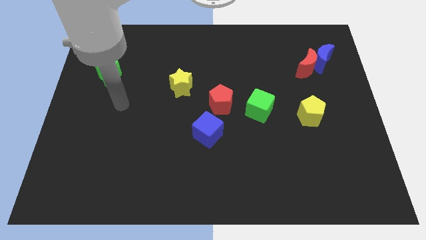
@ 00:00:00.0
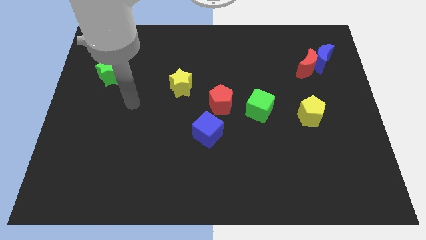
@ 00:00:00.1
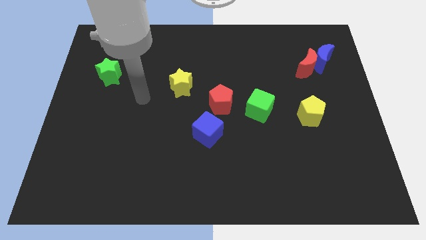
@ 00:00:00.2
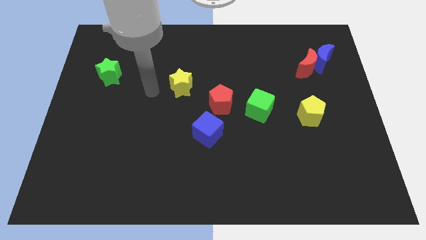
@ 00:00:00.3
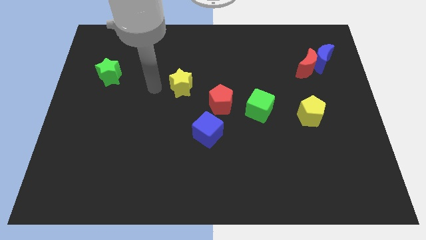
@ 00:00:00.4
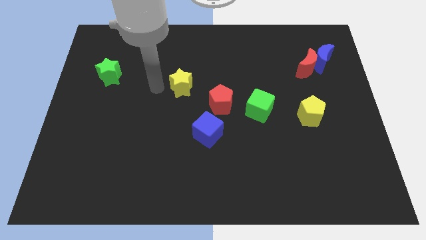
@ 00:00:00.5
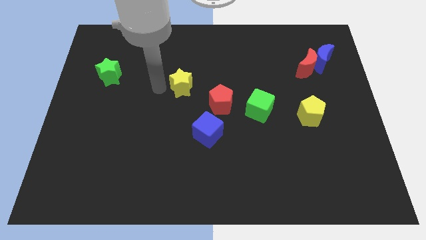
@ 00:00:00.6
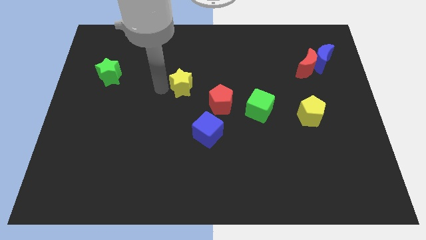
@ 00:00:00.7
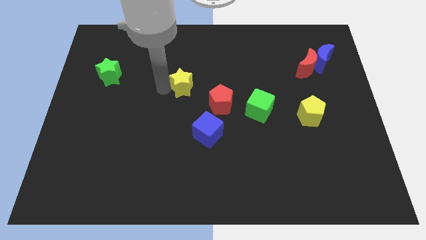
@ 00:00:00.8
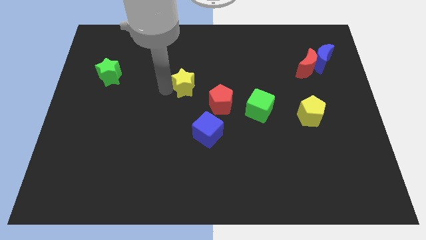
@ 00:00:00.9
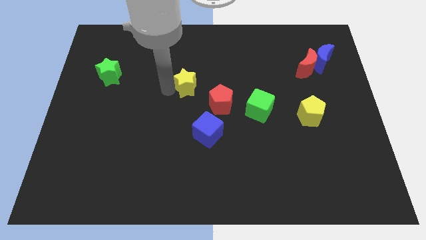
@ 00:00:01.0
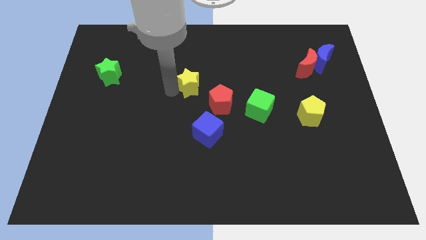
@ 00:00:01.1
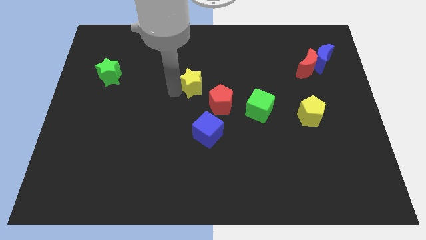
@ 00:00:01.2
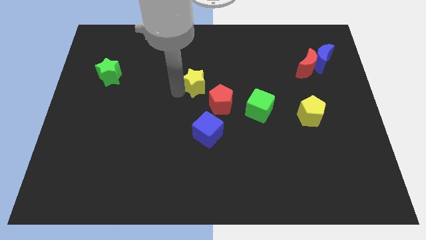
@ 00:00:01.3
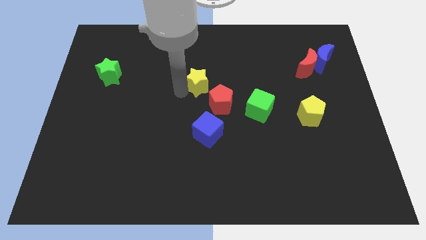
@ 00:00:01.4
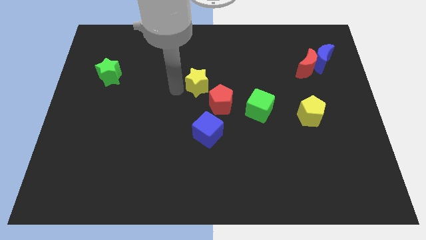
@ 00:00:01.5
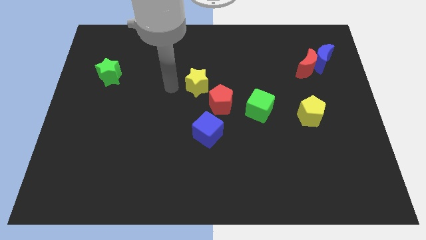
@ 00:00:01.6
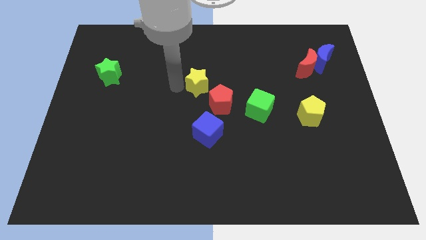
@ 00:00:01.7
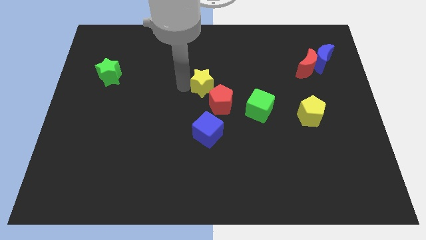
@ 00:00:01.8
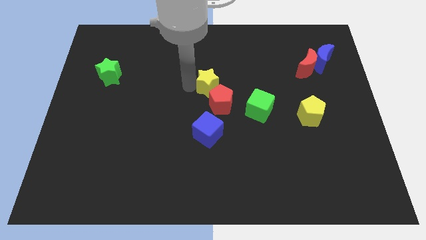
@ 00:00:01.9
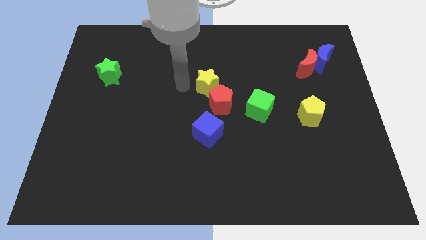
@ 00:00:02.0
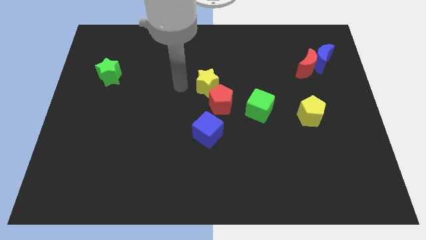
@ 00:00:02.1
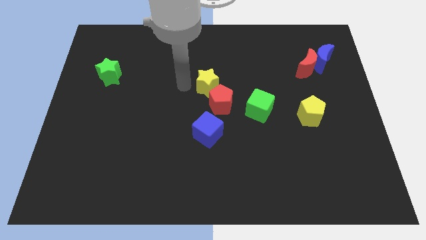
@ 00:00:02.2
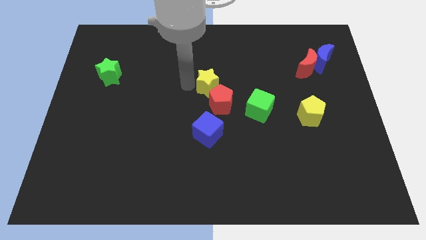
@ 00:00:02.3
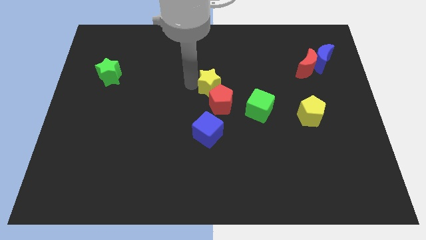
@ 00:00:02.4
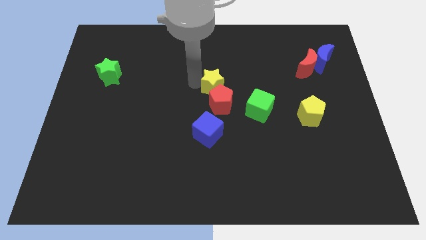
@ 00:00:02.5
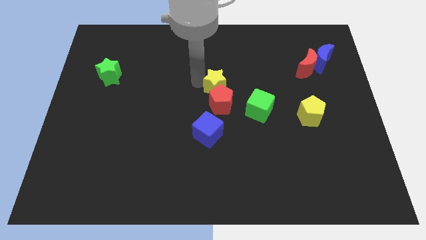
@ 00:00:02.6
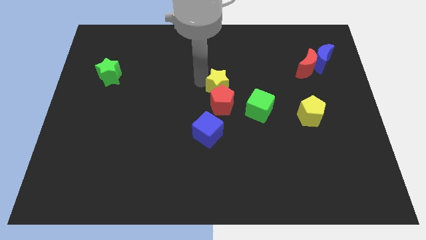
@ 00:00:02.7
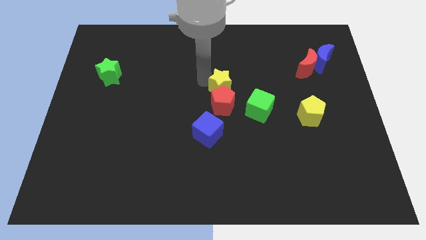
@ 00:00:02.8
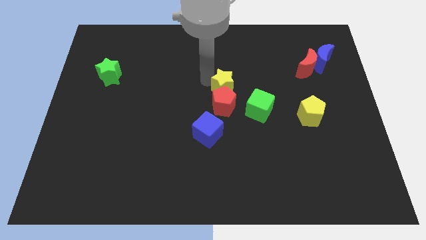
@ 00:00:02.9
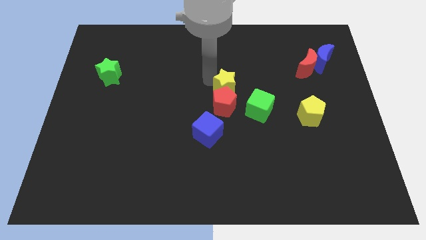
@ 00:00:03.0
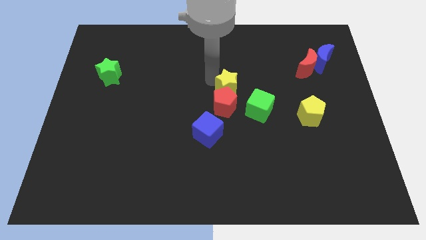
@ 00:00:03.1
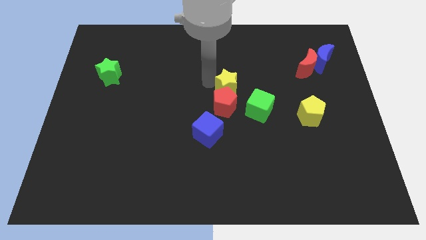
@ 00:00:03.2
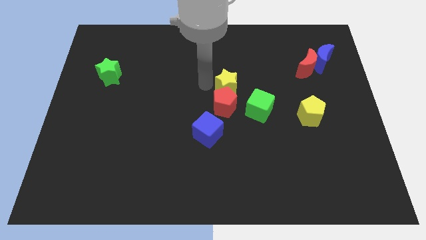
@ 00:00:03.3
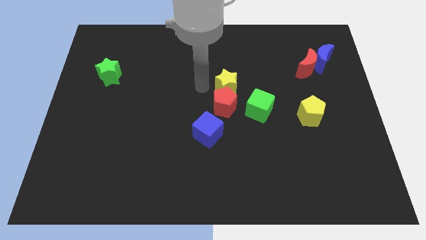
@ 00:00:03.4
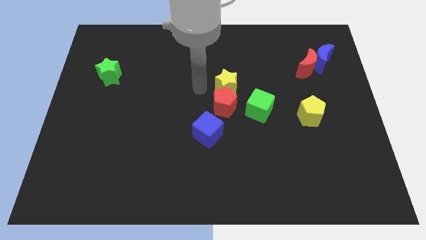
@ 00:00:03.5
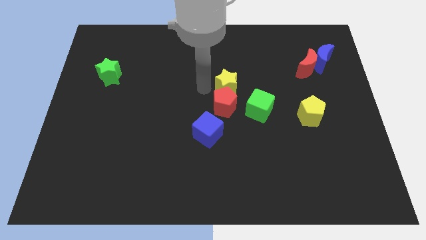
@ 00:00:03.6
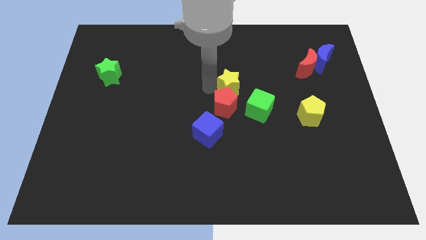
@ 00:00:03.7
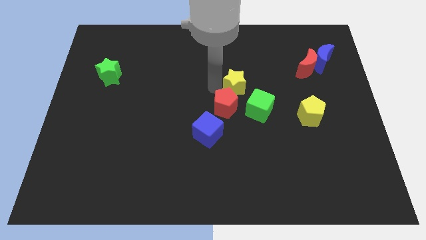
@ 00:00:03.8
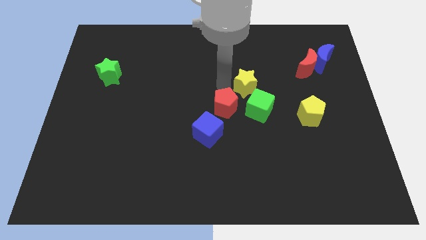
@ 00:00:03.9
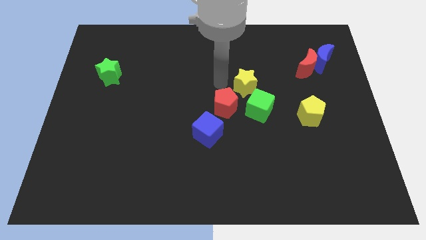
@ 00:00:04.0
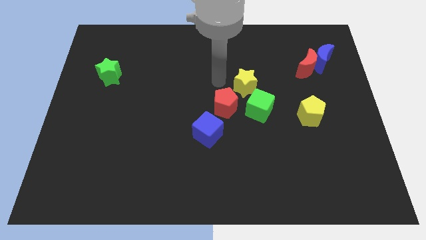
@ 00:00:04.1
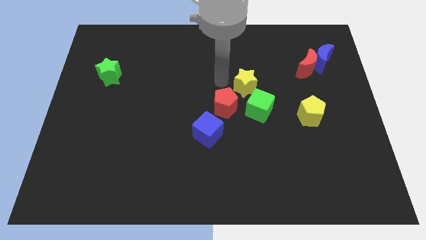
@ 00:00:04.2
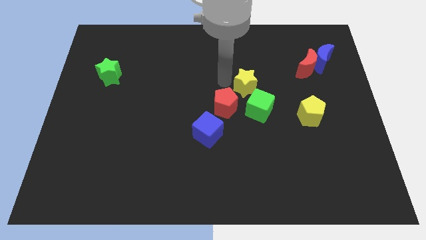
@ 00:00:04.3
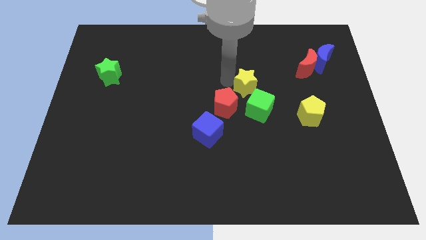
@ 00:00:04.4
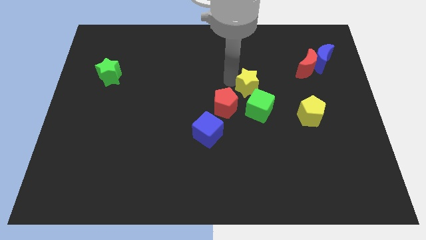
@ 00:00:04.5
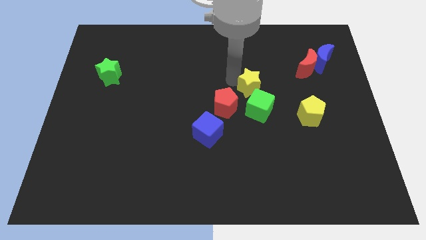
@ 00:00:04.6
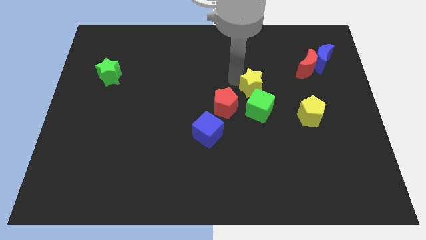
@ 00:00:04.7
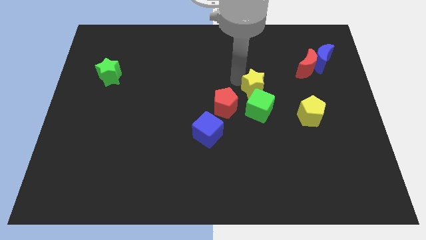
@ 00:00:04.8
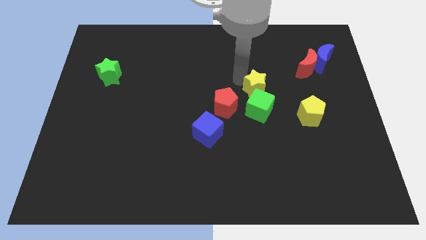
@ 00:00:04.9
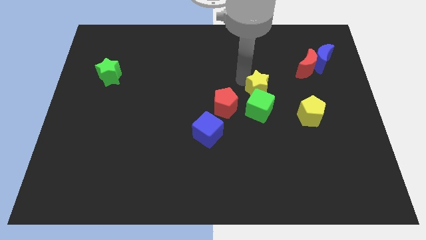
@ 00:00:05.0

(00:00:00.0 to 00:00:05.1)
move the yellow star diagonally up and to the right of the green cube

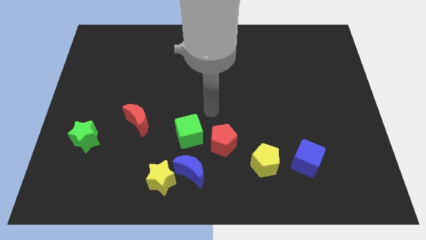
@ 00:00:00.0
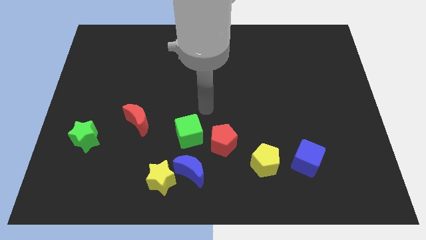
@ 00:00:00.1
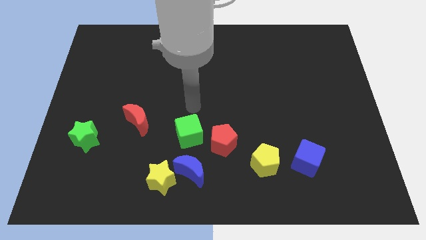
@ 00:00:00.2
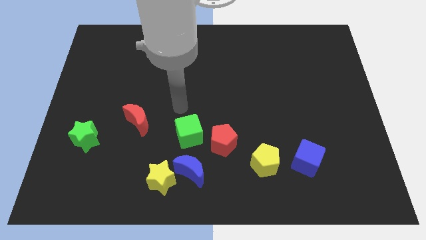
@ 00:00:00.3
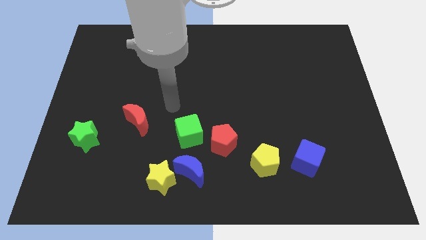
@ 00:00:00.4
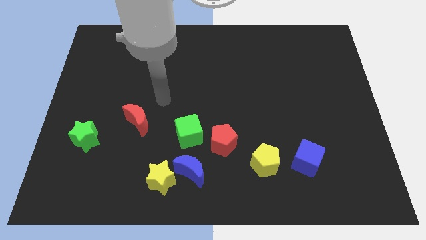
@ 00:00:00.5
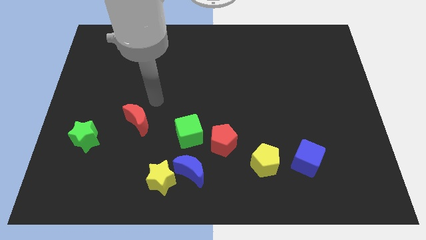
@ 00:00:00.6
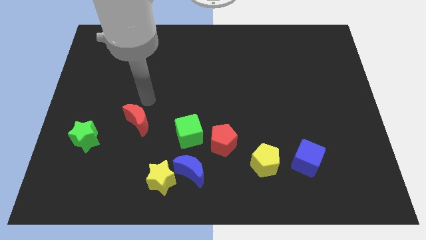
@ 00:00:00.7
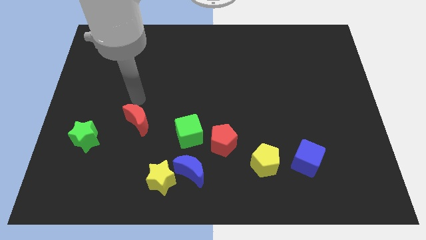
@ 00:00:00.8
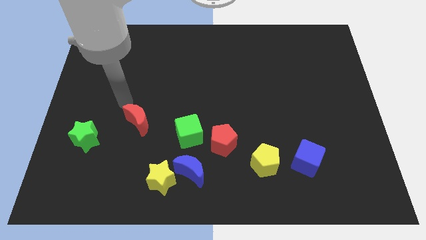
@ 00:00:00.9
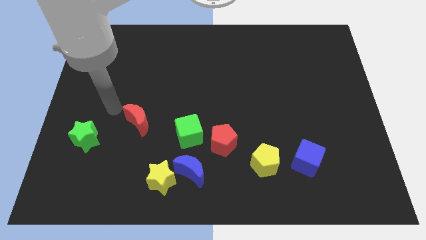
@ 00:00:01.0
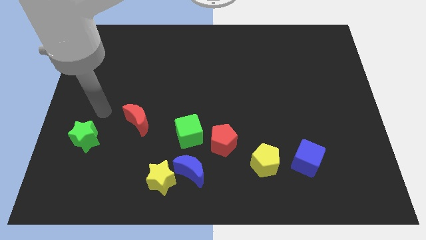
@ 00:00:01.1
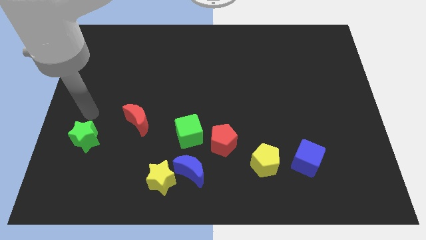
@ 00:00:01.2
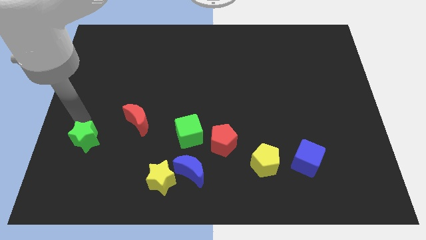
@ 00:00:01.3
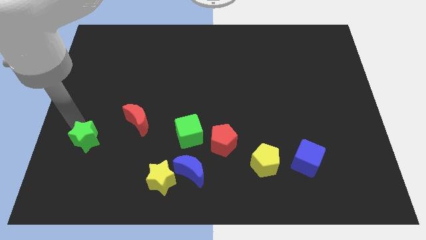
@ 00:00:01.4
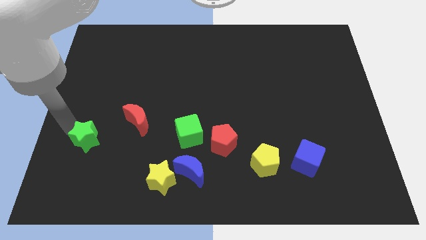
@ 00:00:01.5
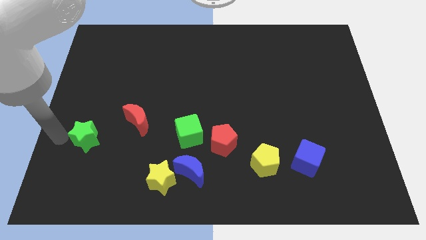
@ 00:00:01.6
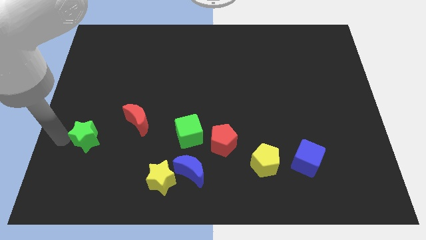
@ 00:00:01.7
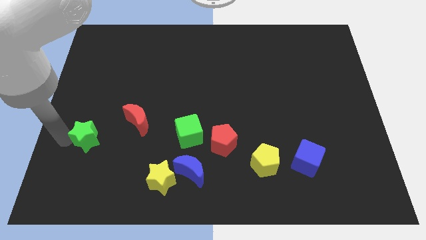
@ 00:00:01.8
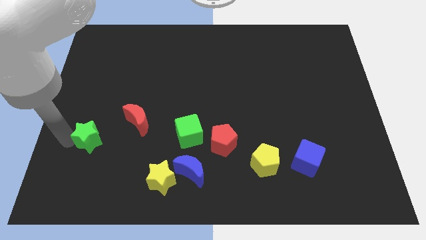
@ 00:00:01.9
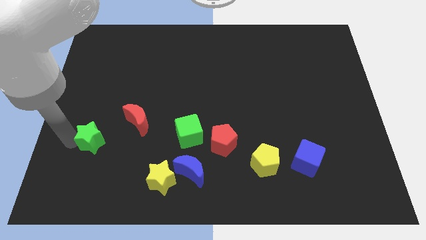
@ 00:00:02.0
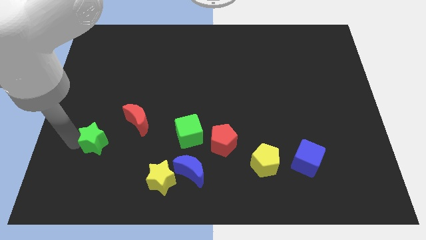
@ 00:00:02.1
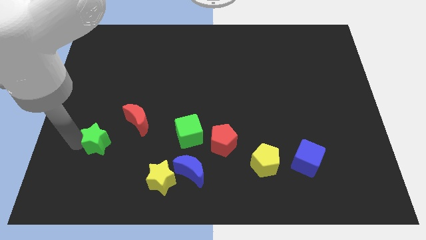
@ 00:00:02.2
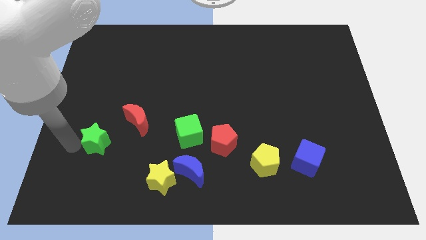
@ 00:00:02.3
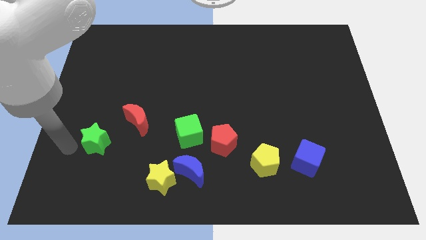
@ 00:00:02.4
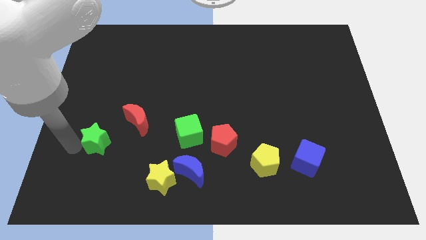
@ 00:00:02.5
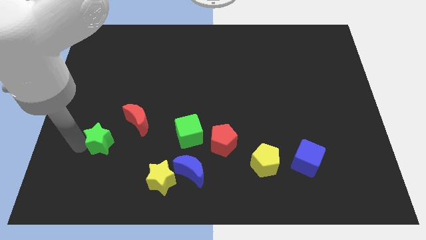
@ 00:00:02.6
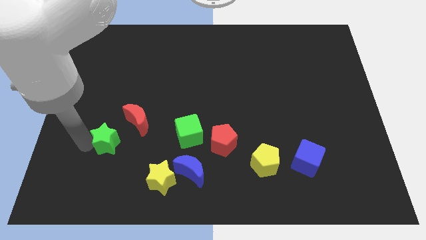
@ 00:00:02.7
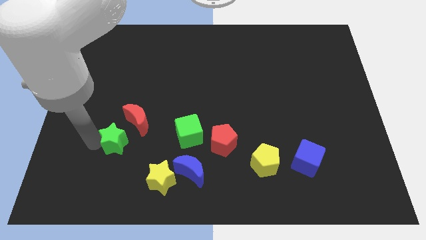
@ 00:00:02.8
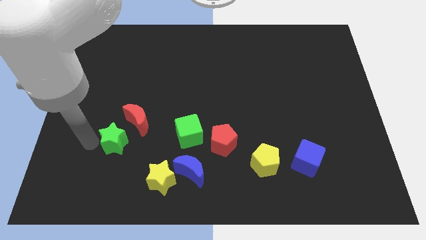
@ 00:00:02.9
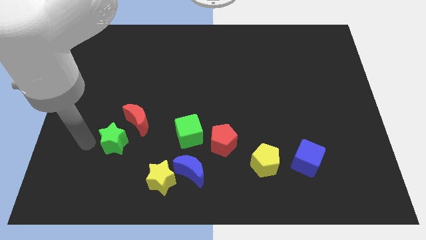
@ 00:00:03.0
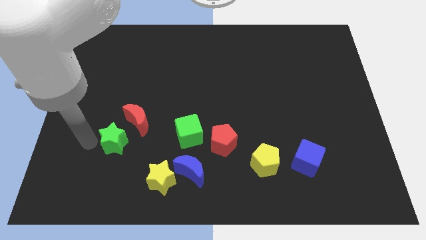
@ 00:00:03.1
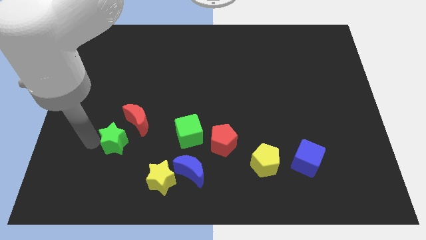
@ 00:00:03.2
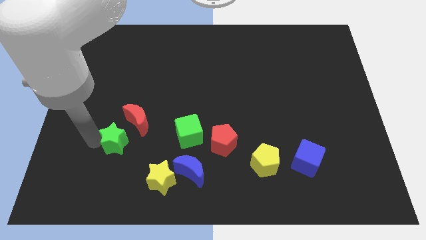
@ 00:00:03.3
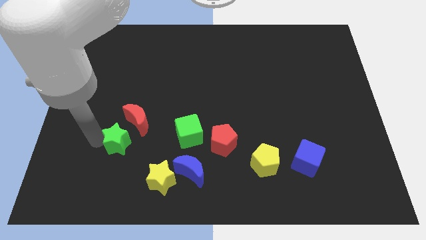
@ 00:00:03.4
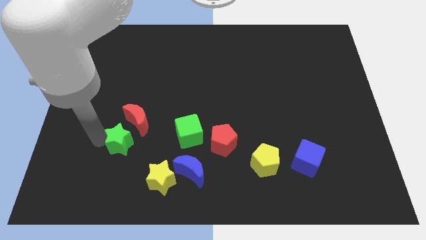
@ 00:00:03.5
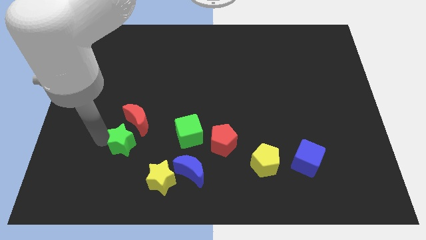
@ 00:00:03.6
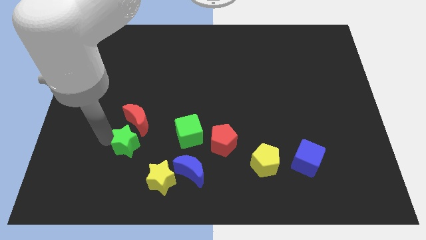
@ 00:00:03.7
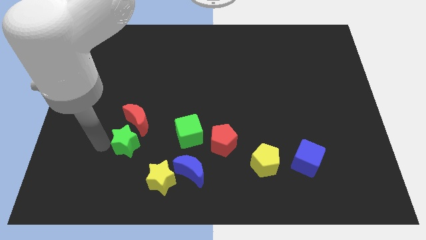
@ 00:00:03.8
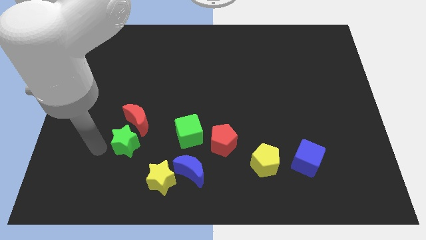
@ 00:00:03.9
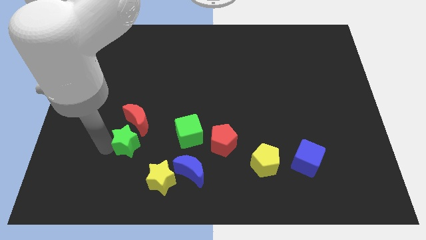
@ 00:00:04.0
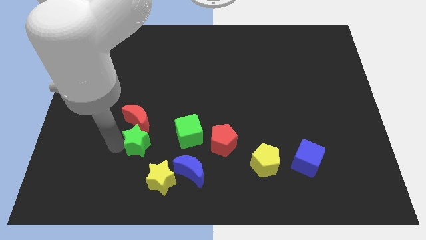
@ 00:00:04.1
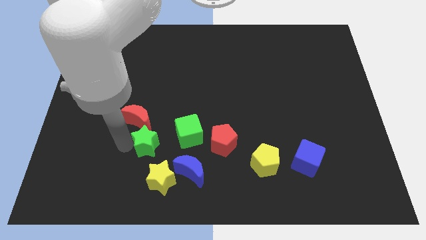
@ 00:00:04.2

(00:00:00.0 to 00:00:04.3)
push the green star above the yellow star
